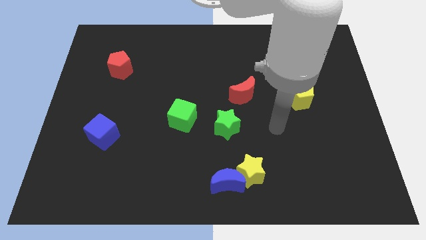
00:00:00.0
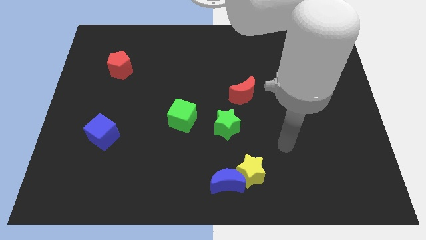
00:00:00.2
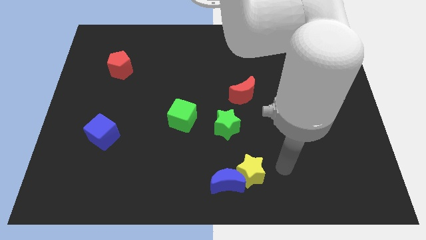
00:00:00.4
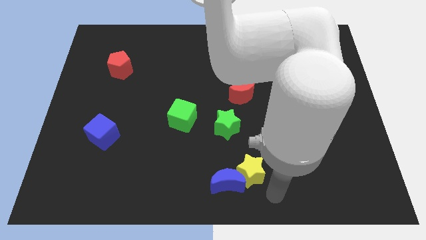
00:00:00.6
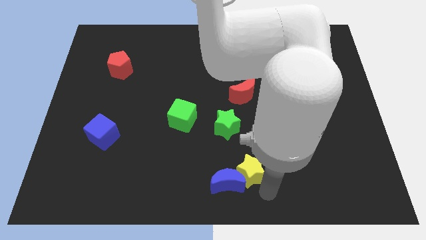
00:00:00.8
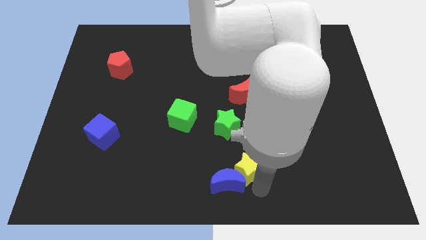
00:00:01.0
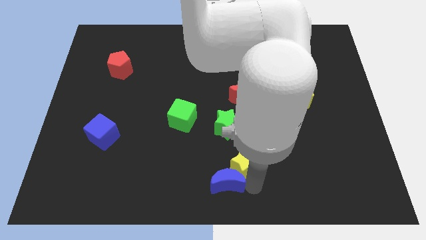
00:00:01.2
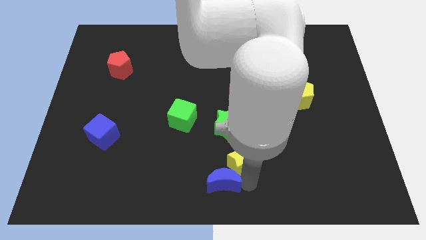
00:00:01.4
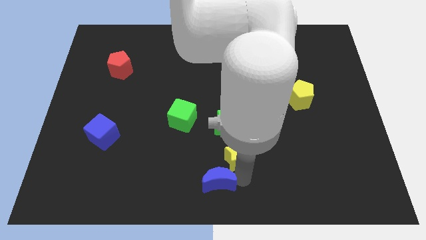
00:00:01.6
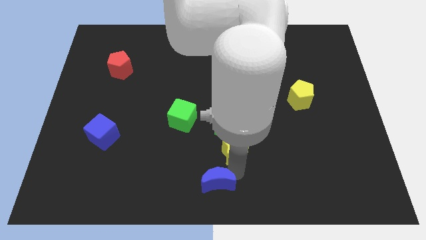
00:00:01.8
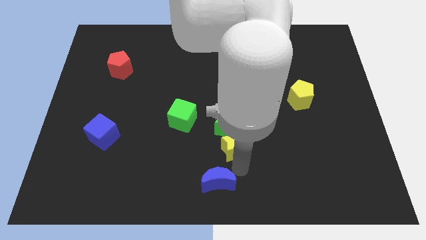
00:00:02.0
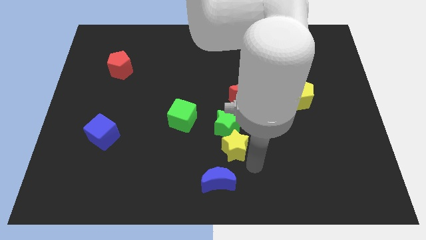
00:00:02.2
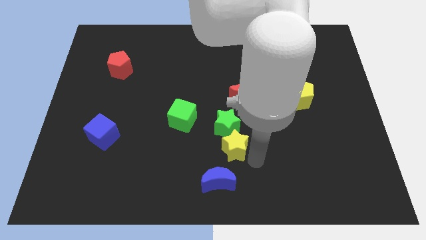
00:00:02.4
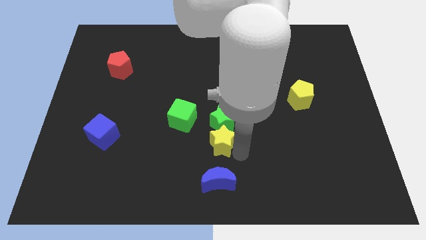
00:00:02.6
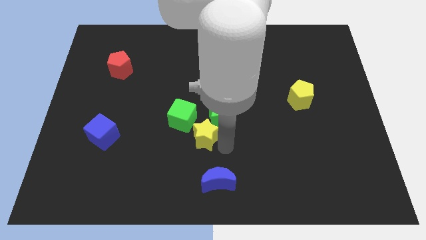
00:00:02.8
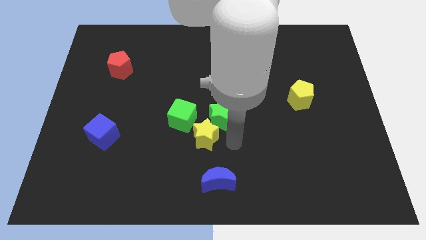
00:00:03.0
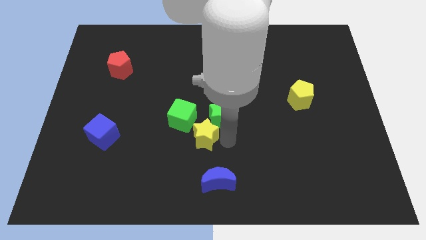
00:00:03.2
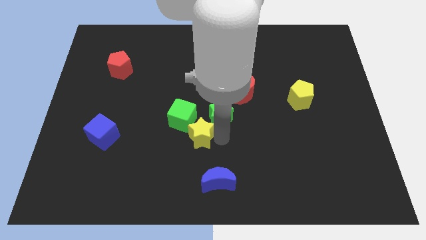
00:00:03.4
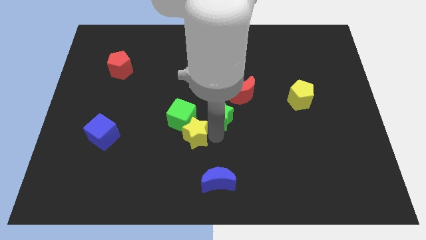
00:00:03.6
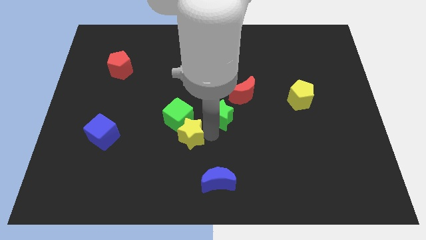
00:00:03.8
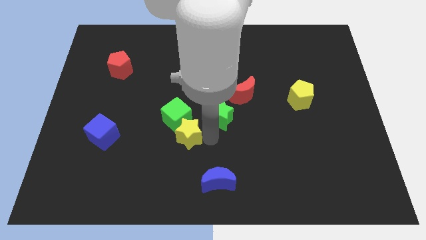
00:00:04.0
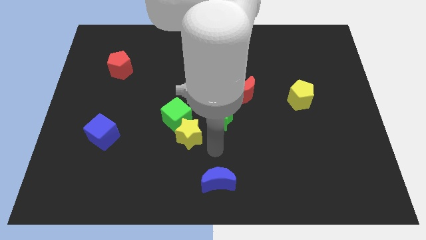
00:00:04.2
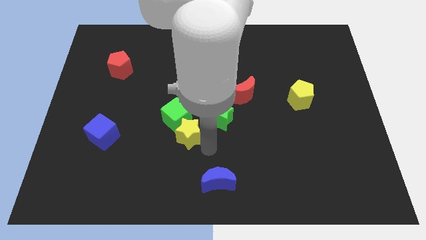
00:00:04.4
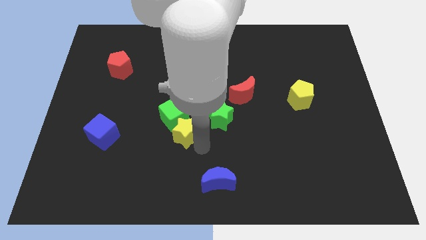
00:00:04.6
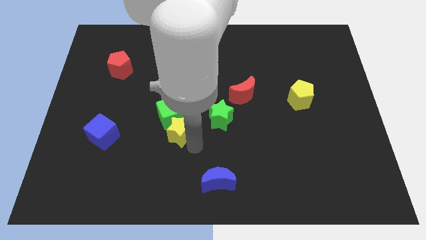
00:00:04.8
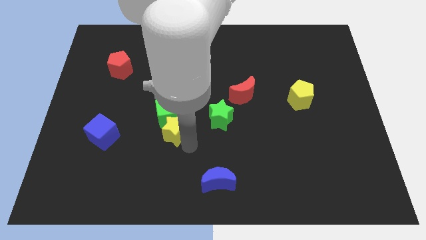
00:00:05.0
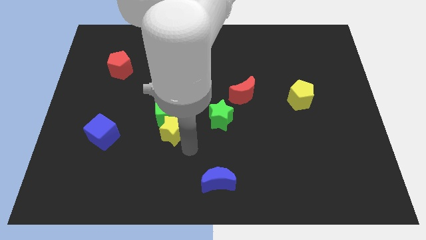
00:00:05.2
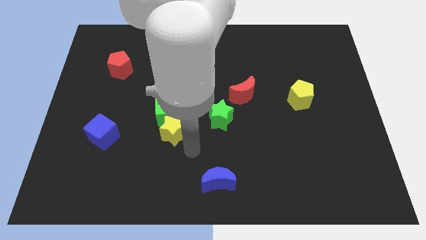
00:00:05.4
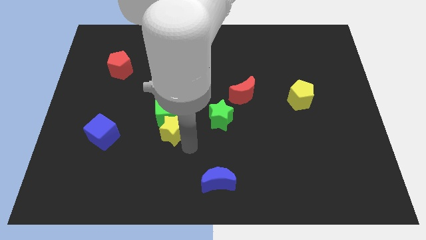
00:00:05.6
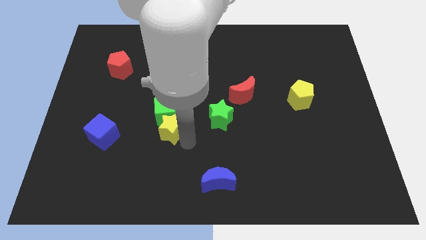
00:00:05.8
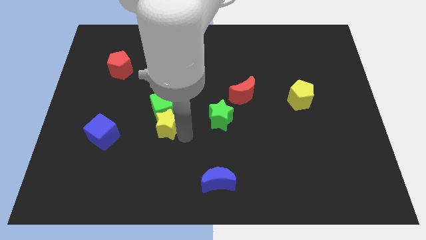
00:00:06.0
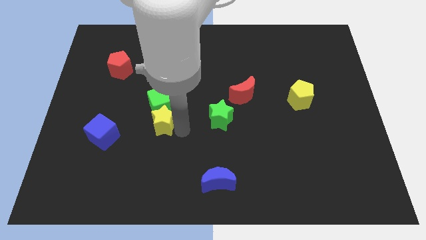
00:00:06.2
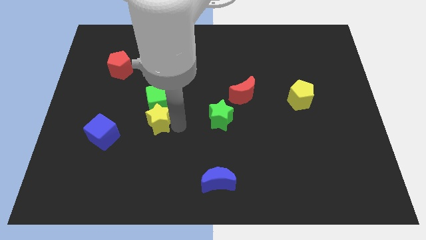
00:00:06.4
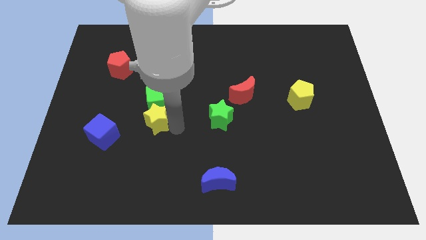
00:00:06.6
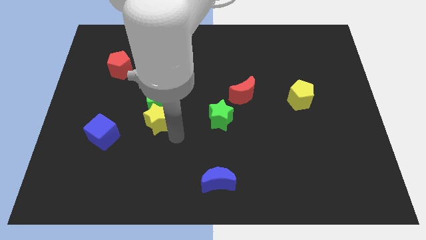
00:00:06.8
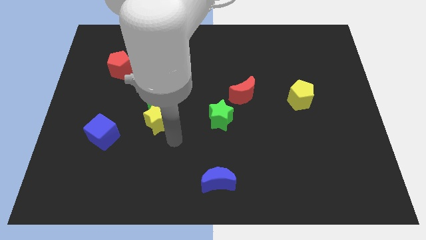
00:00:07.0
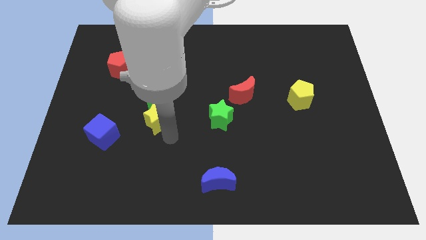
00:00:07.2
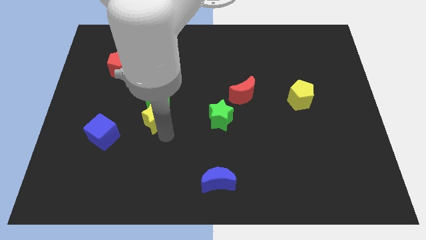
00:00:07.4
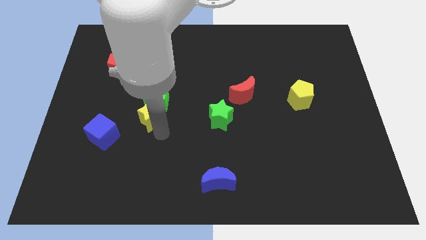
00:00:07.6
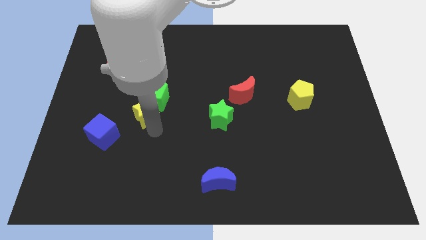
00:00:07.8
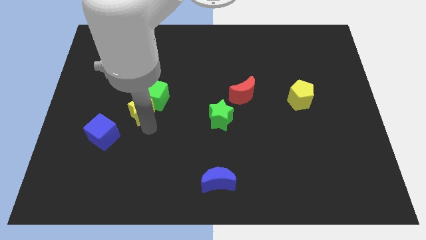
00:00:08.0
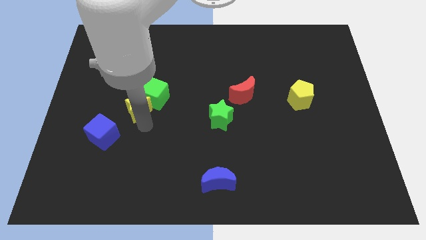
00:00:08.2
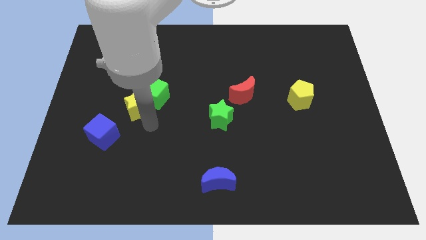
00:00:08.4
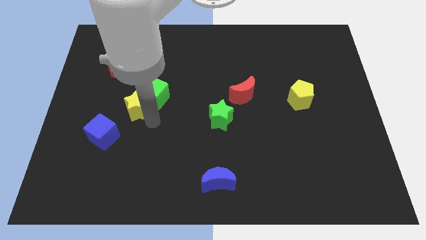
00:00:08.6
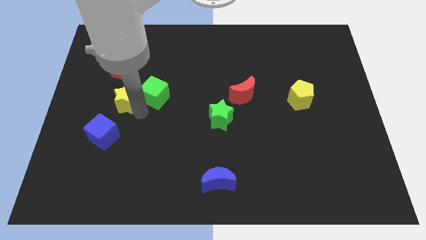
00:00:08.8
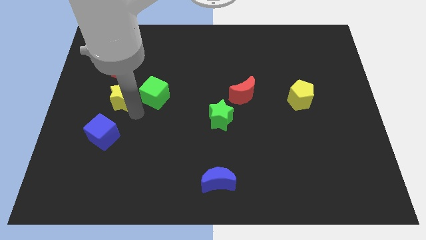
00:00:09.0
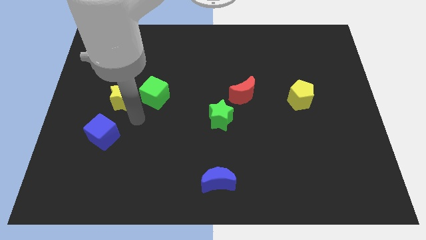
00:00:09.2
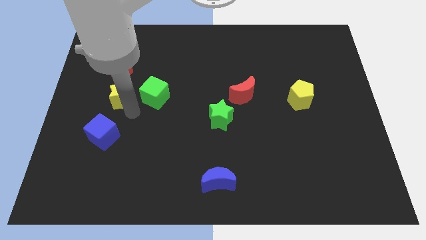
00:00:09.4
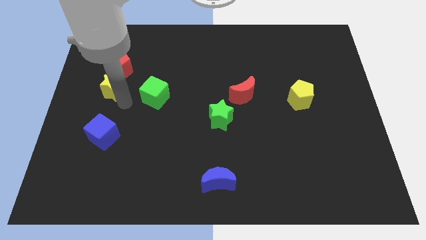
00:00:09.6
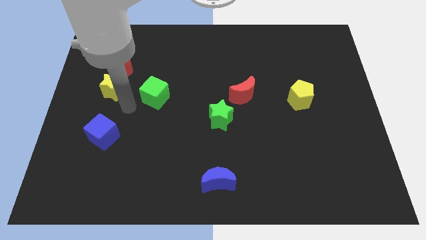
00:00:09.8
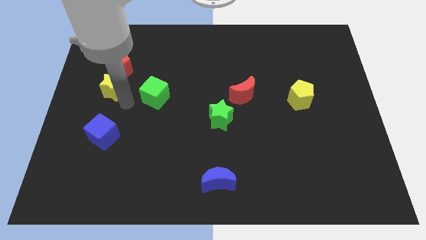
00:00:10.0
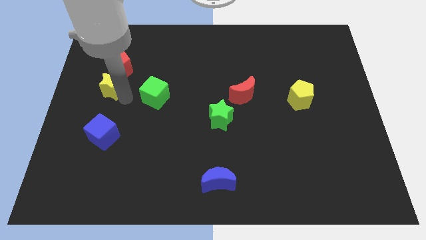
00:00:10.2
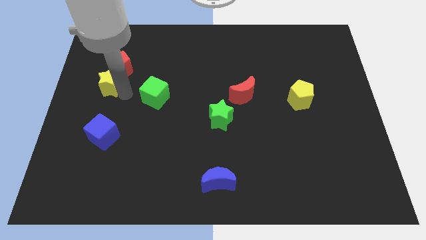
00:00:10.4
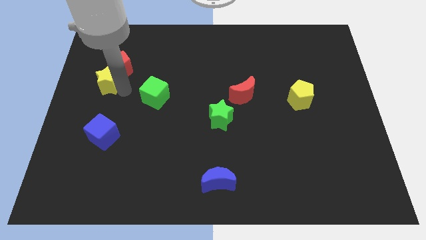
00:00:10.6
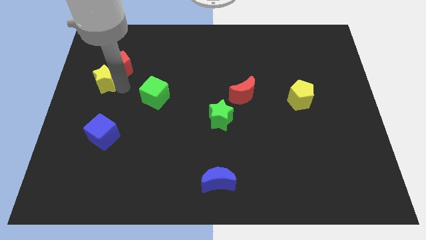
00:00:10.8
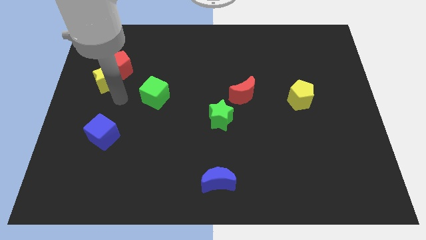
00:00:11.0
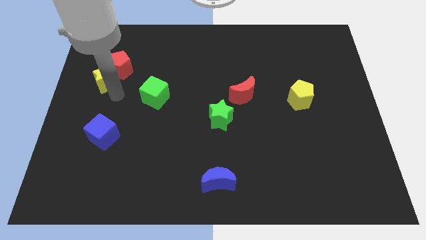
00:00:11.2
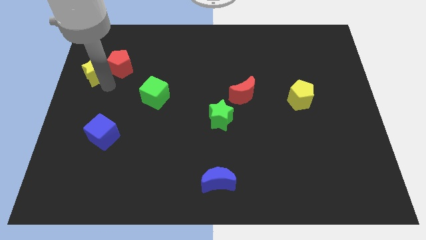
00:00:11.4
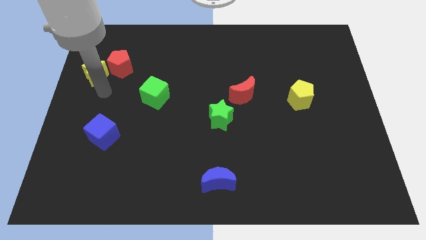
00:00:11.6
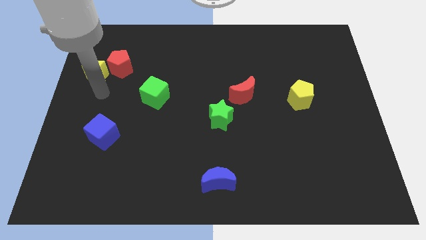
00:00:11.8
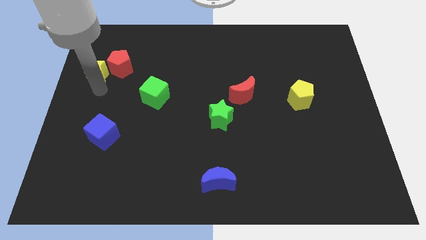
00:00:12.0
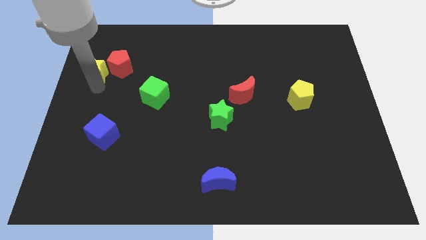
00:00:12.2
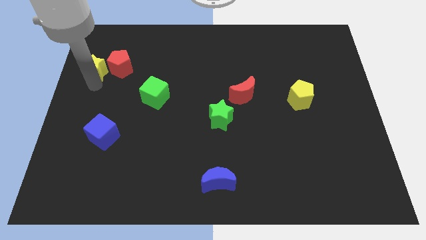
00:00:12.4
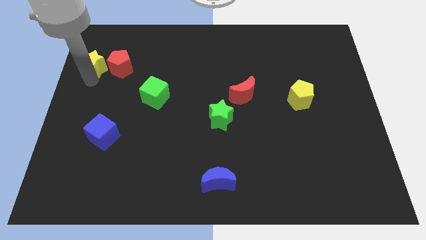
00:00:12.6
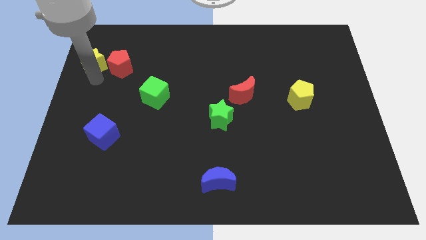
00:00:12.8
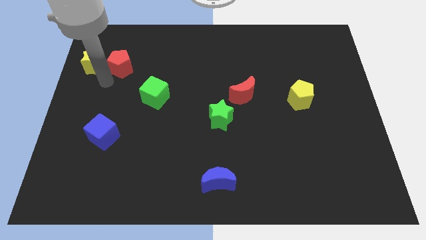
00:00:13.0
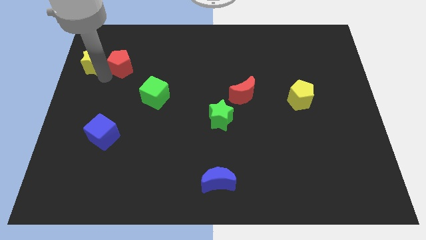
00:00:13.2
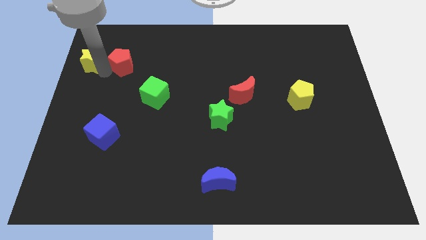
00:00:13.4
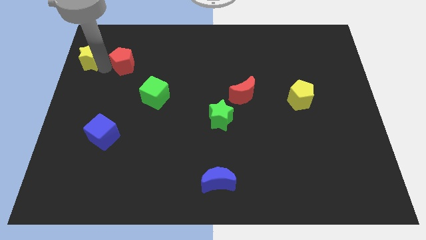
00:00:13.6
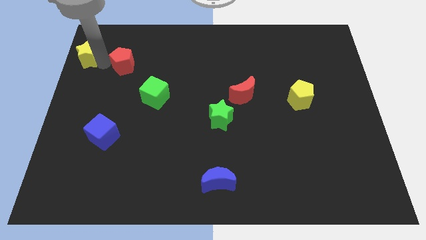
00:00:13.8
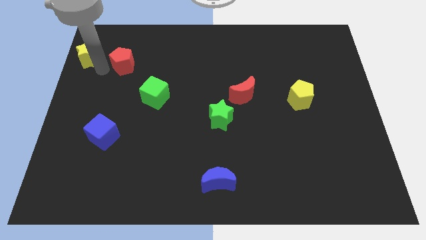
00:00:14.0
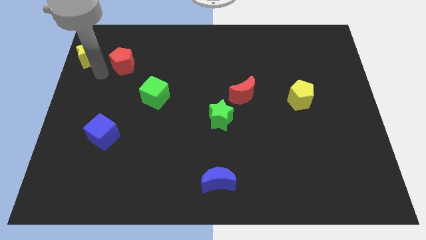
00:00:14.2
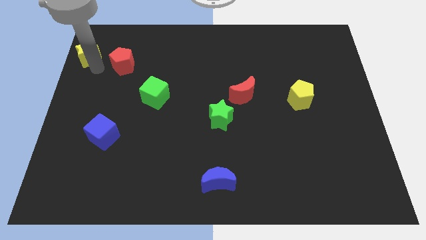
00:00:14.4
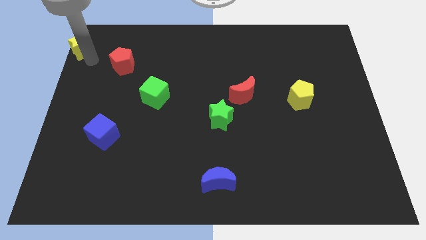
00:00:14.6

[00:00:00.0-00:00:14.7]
push the yellow star to the top left corner
